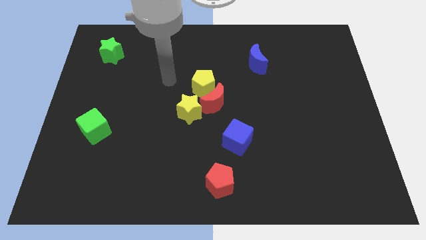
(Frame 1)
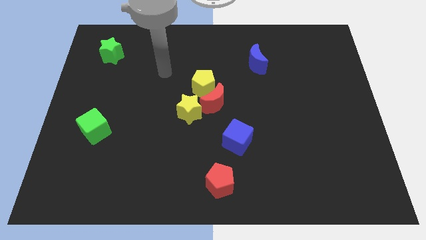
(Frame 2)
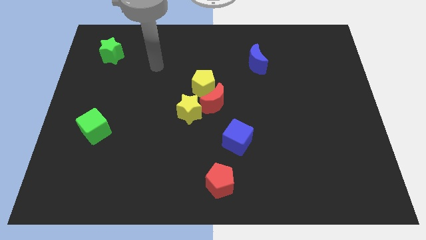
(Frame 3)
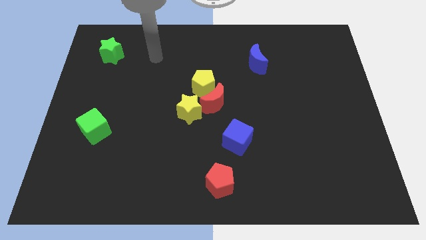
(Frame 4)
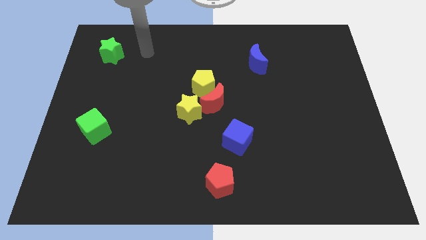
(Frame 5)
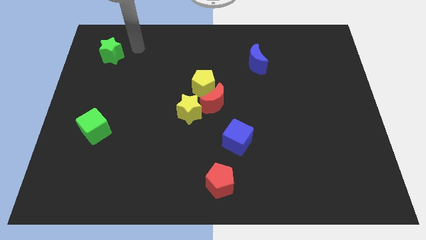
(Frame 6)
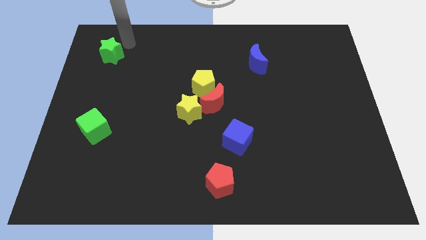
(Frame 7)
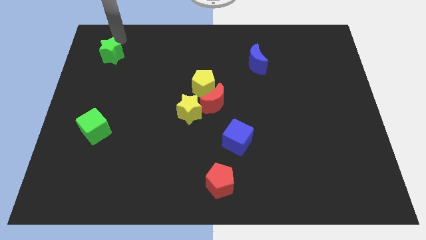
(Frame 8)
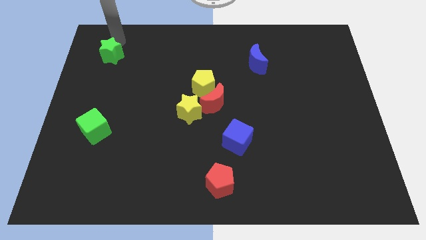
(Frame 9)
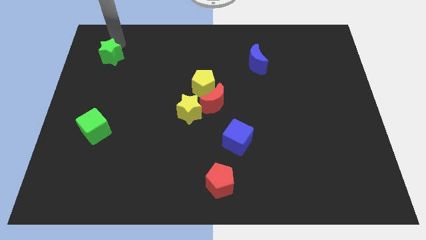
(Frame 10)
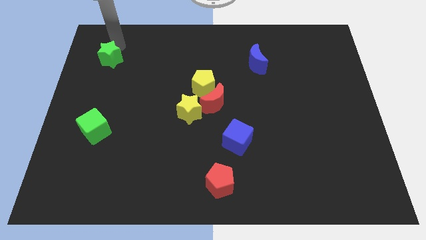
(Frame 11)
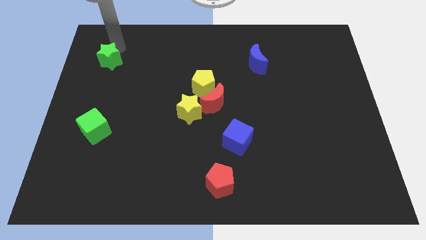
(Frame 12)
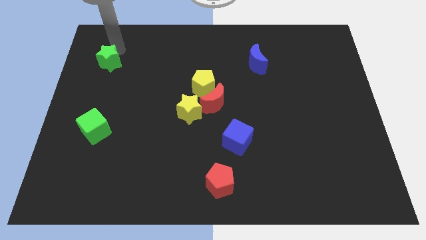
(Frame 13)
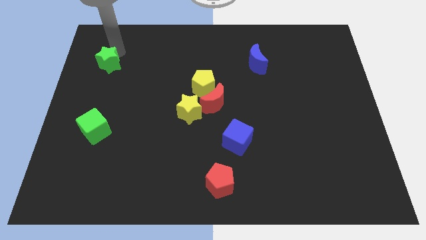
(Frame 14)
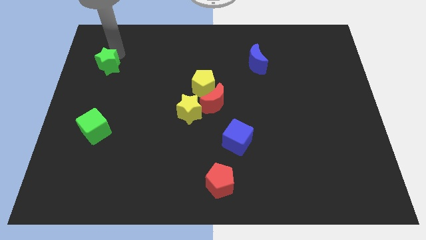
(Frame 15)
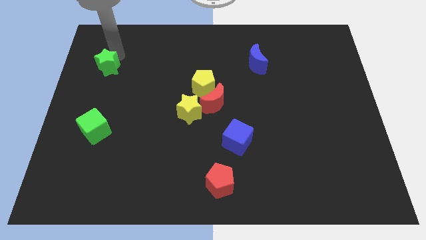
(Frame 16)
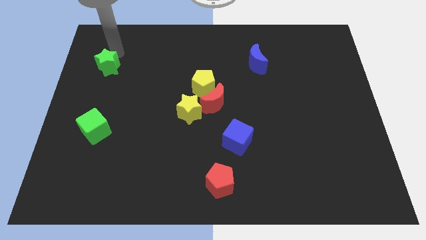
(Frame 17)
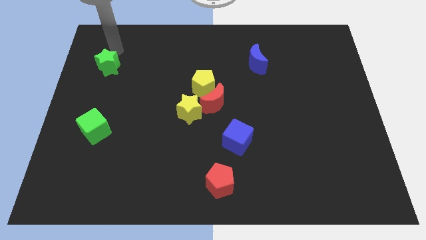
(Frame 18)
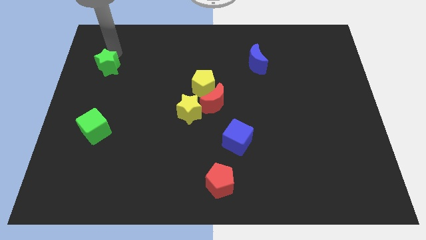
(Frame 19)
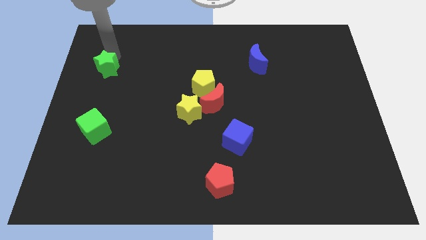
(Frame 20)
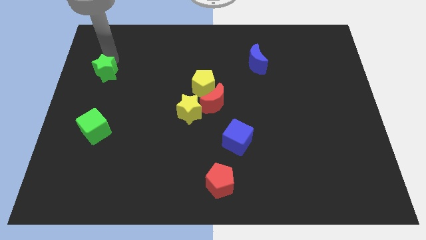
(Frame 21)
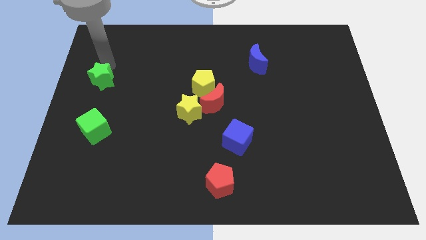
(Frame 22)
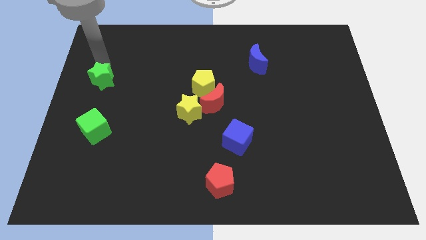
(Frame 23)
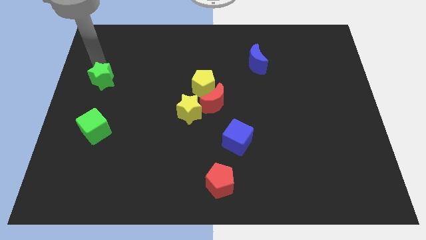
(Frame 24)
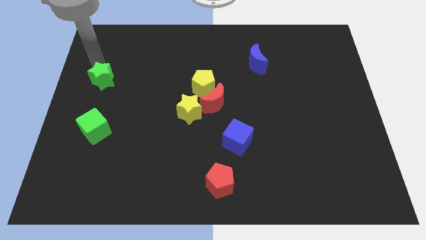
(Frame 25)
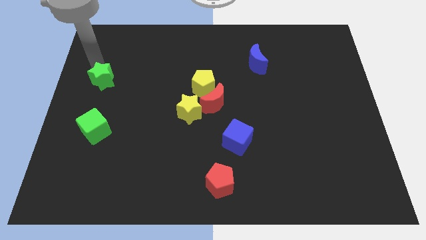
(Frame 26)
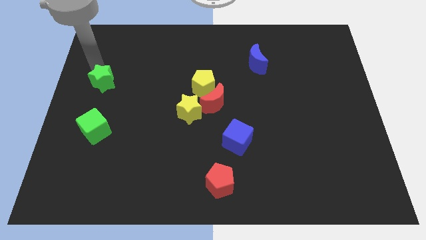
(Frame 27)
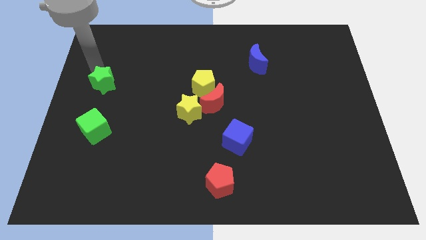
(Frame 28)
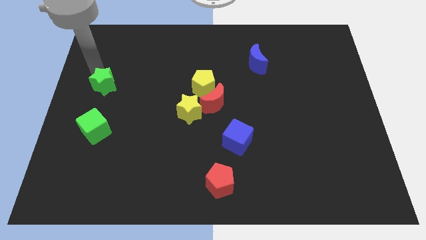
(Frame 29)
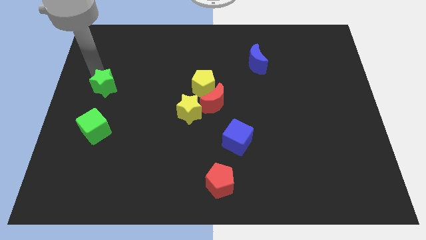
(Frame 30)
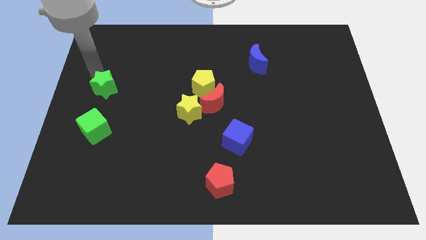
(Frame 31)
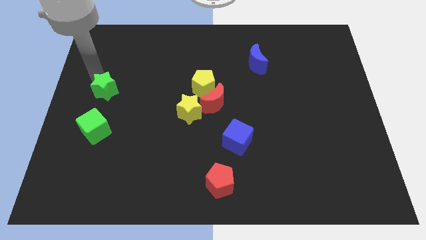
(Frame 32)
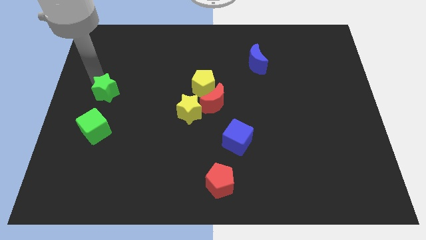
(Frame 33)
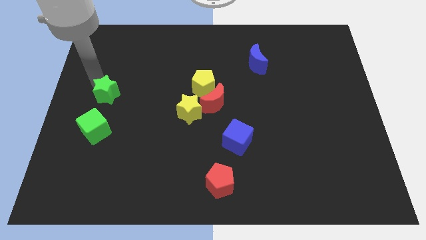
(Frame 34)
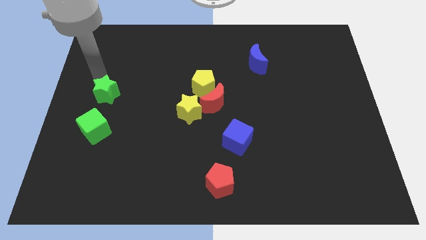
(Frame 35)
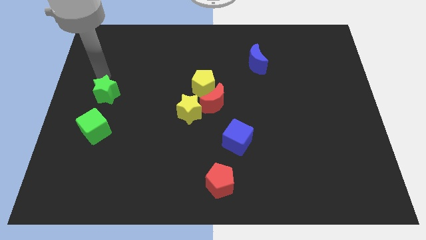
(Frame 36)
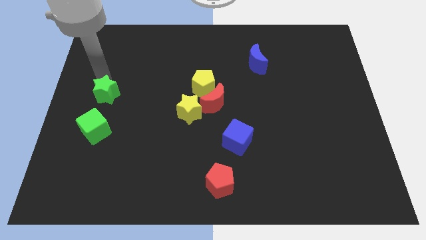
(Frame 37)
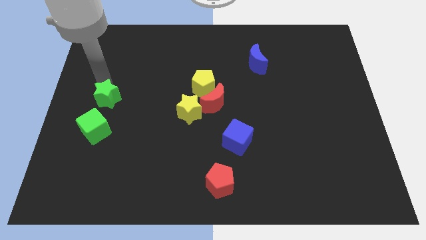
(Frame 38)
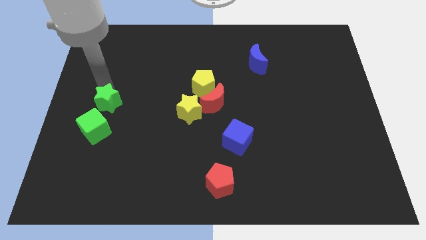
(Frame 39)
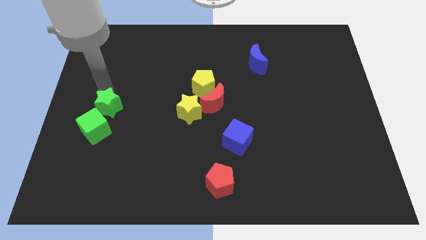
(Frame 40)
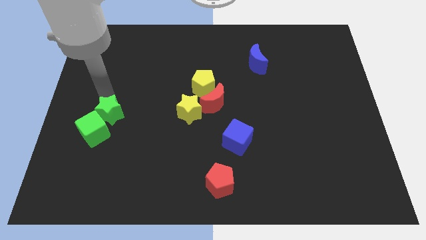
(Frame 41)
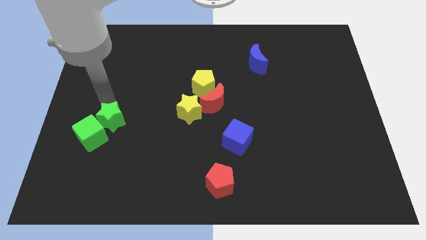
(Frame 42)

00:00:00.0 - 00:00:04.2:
move the green star downwards

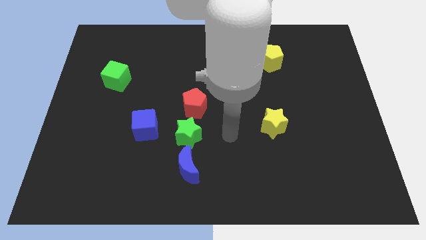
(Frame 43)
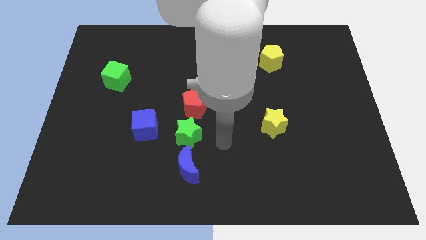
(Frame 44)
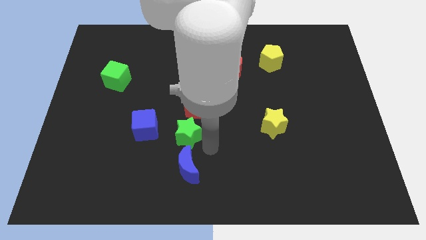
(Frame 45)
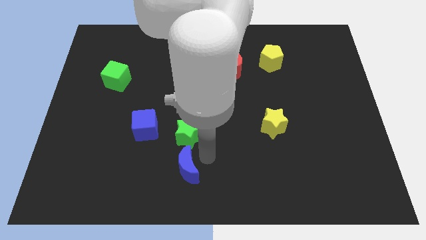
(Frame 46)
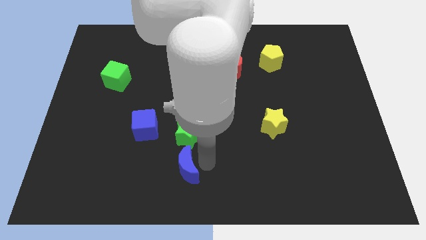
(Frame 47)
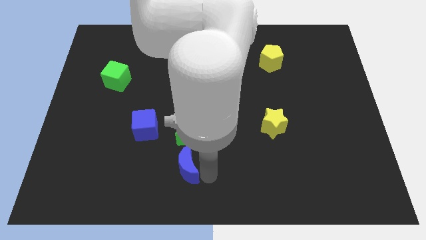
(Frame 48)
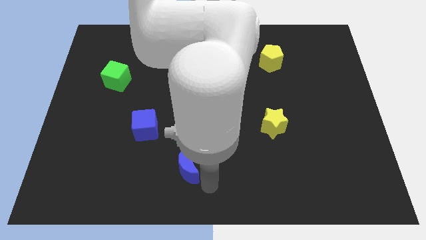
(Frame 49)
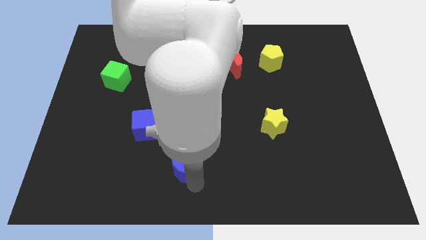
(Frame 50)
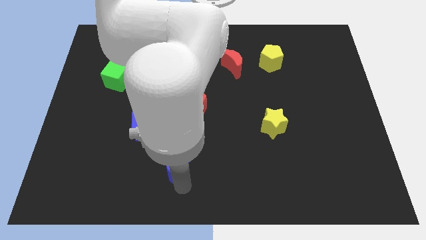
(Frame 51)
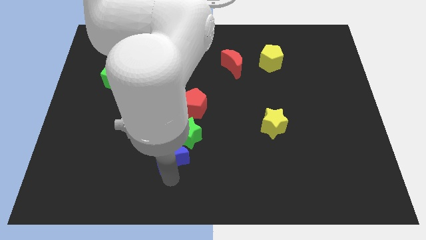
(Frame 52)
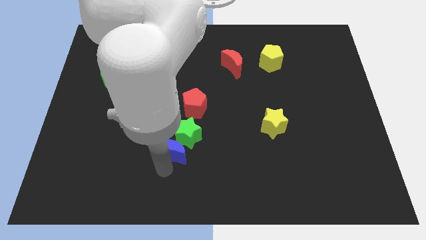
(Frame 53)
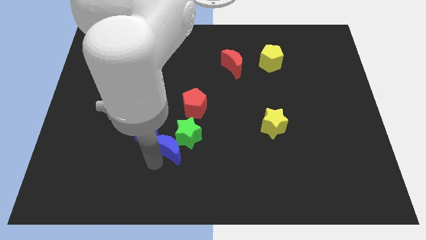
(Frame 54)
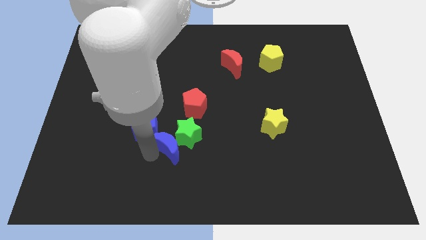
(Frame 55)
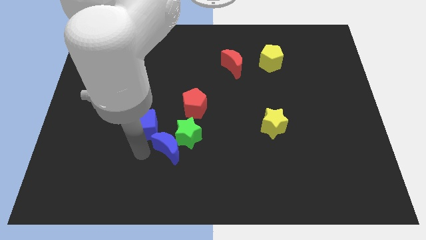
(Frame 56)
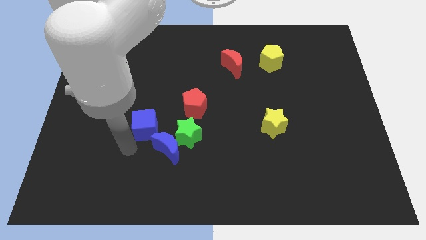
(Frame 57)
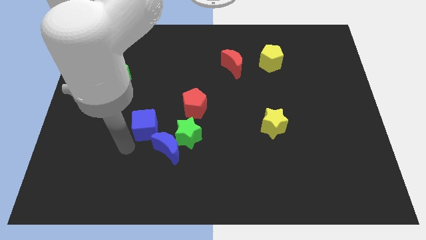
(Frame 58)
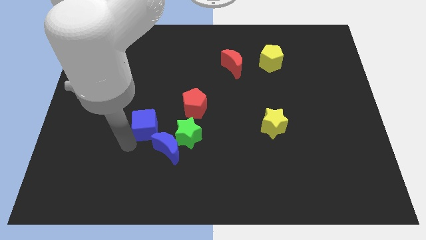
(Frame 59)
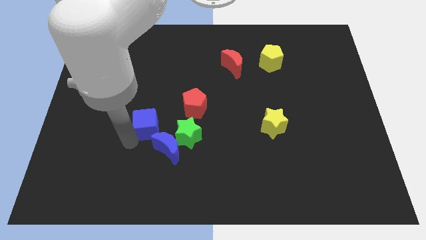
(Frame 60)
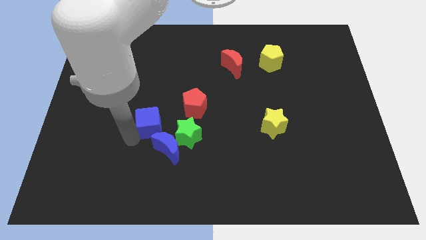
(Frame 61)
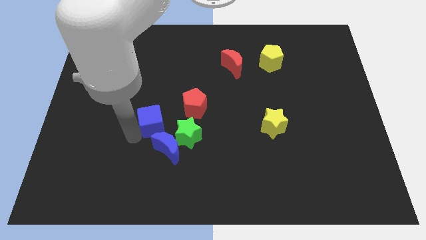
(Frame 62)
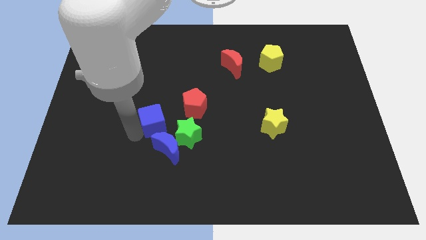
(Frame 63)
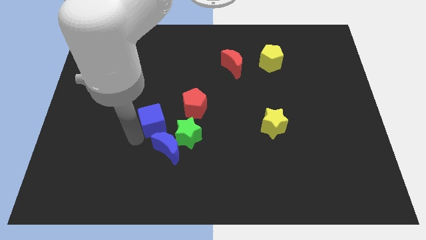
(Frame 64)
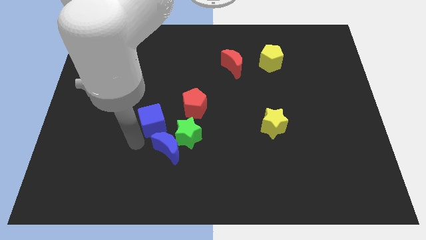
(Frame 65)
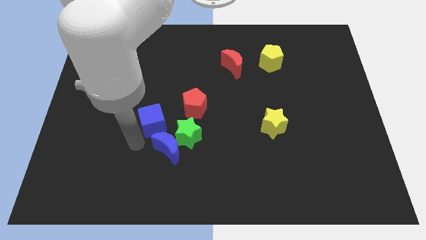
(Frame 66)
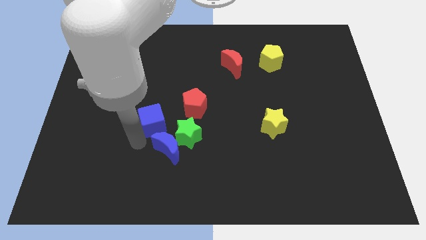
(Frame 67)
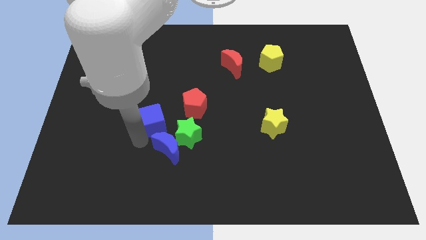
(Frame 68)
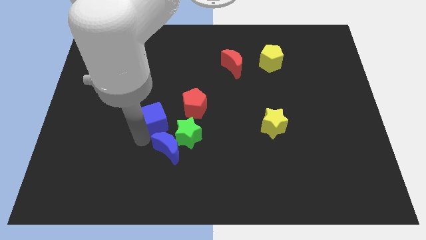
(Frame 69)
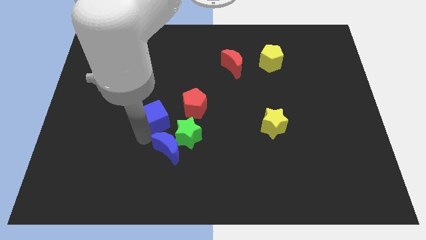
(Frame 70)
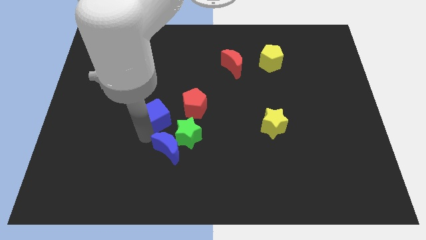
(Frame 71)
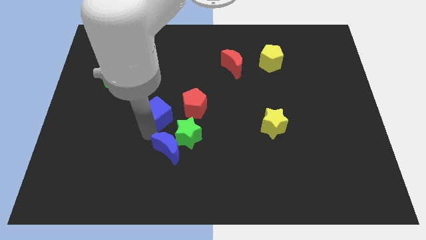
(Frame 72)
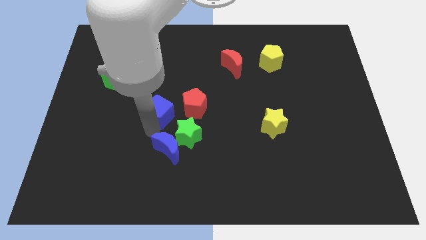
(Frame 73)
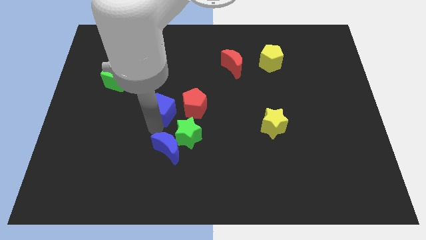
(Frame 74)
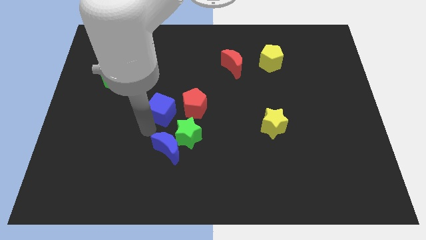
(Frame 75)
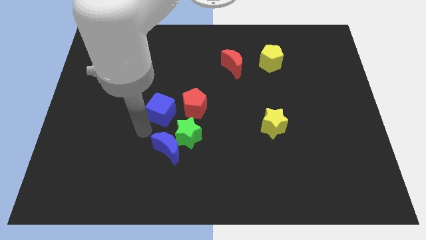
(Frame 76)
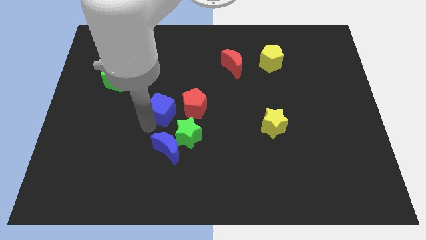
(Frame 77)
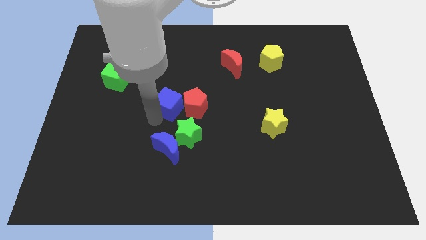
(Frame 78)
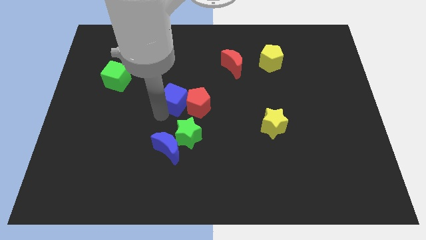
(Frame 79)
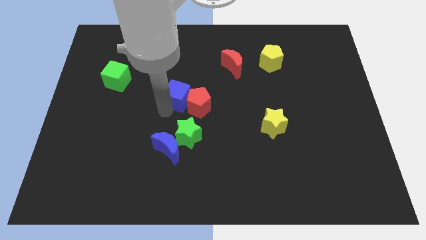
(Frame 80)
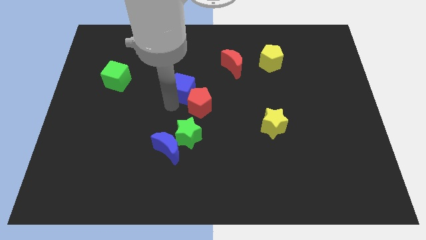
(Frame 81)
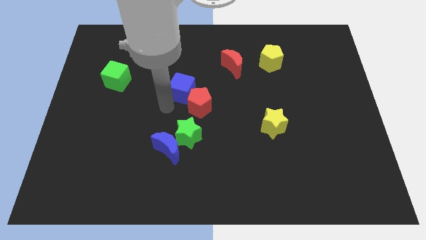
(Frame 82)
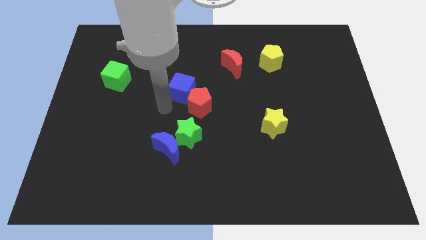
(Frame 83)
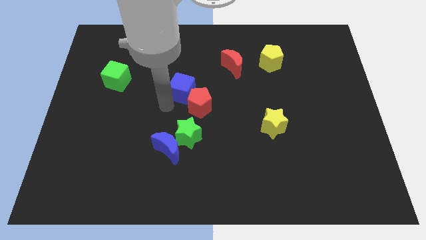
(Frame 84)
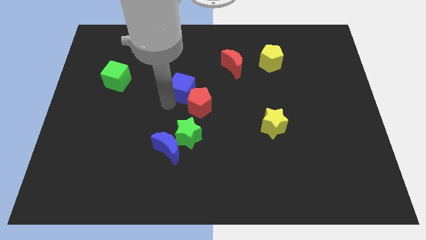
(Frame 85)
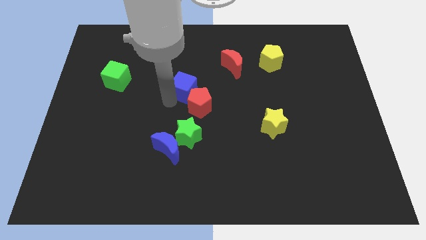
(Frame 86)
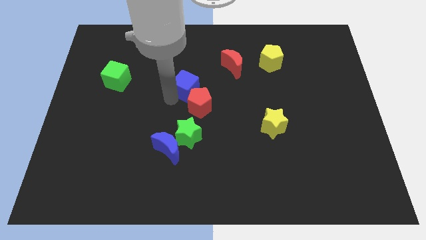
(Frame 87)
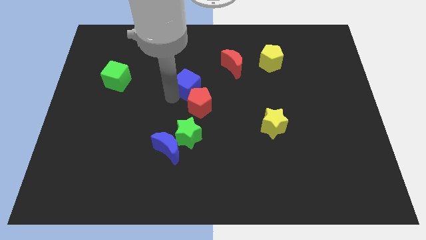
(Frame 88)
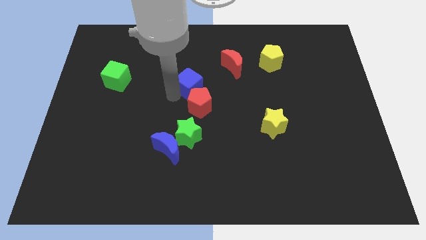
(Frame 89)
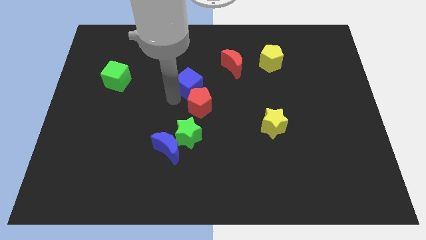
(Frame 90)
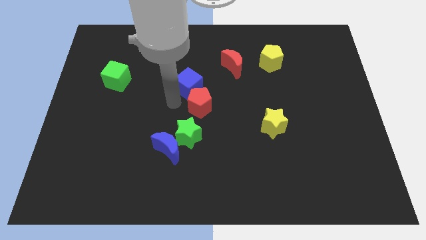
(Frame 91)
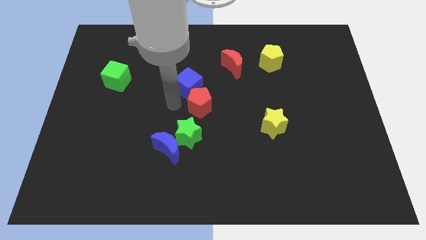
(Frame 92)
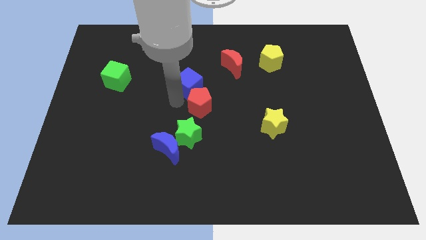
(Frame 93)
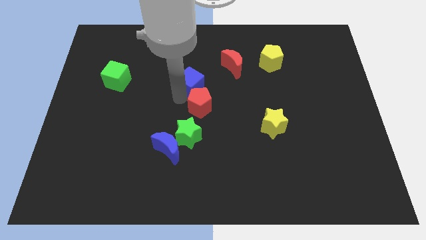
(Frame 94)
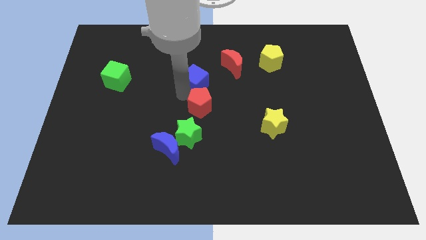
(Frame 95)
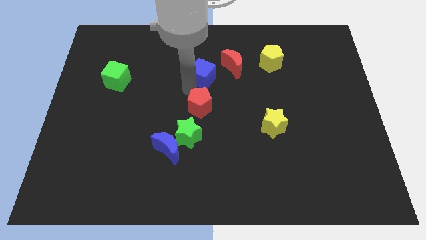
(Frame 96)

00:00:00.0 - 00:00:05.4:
slide the blue cube upwards and right diagonally
